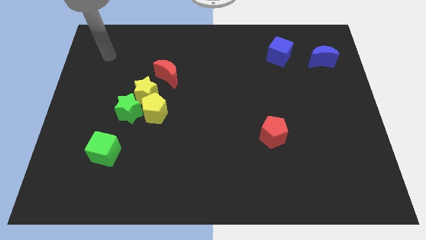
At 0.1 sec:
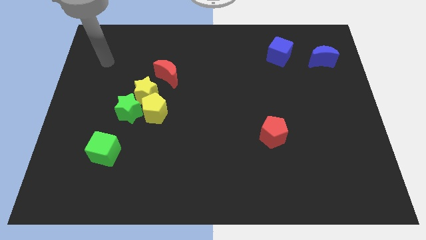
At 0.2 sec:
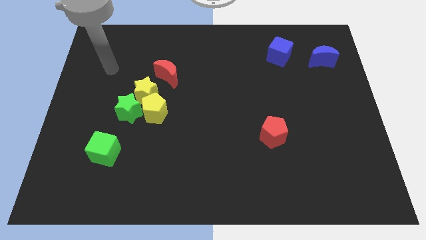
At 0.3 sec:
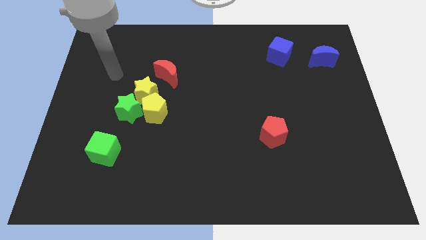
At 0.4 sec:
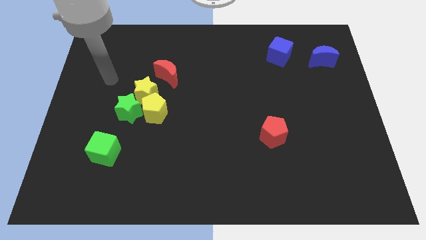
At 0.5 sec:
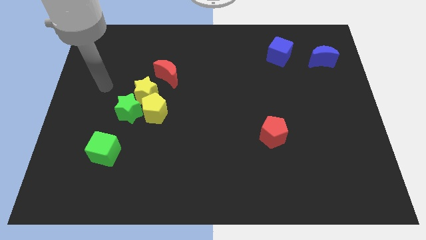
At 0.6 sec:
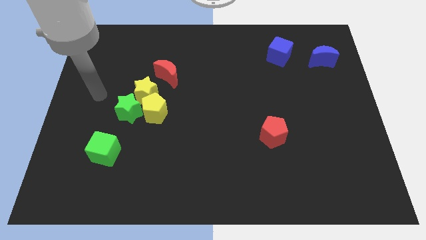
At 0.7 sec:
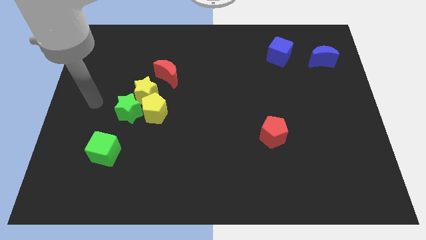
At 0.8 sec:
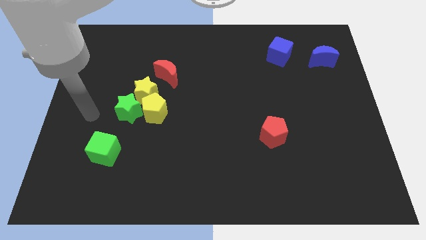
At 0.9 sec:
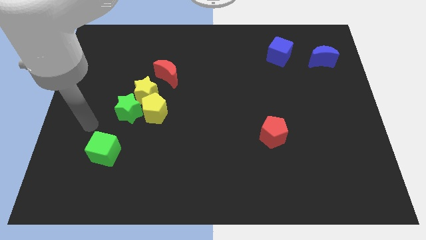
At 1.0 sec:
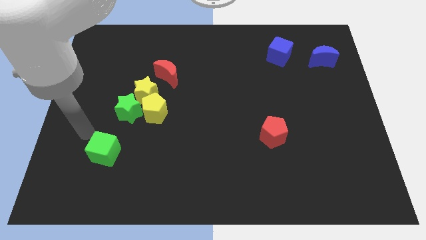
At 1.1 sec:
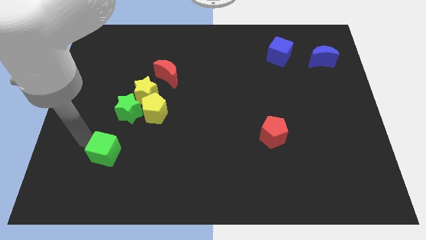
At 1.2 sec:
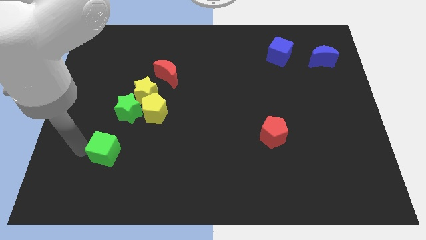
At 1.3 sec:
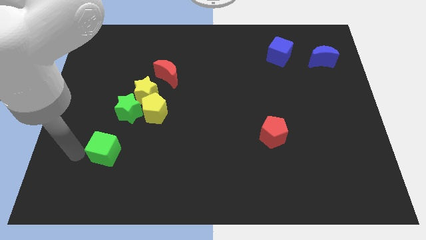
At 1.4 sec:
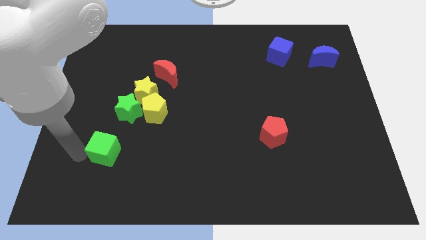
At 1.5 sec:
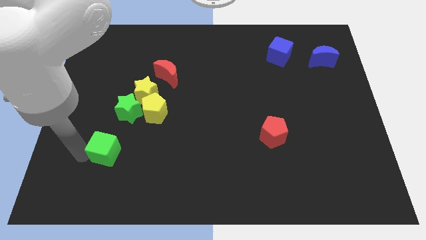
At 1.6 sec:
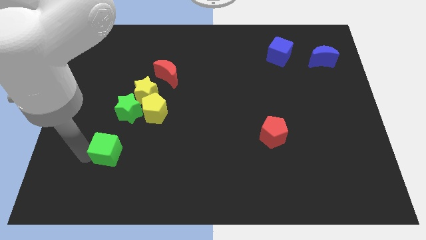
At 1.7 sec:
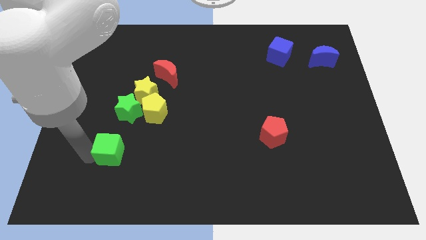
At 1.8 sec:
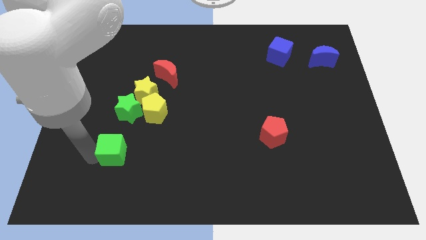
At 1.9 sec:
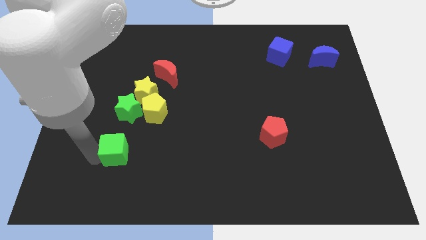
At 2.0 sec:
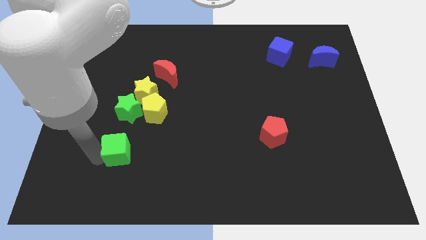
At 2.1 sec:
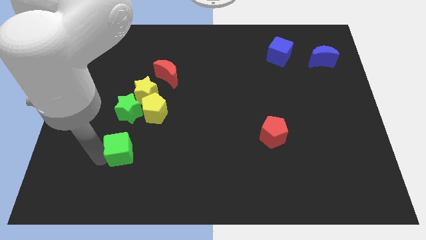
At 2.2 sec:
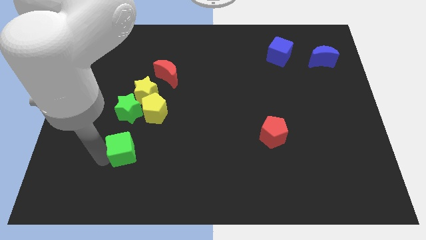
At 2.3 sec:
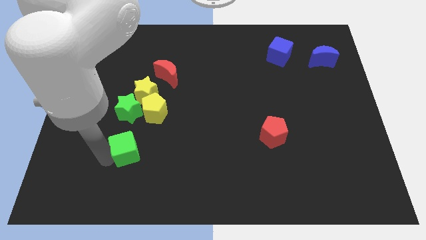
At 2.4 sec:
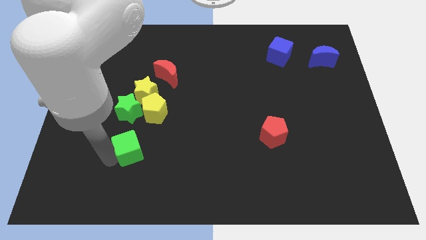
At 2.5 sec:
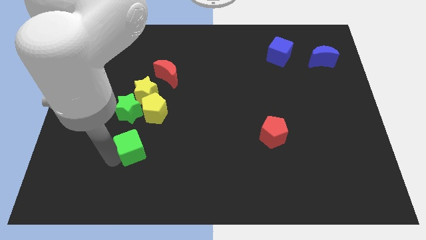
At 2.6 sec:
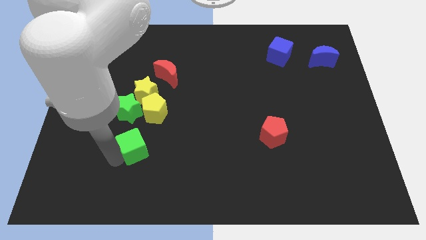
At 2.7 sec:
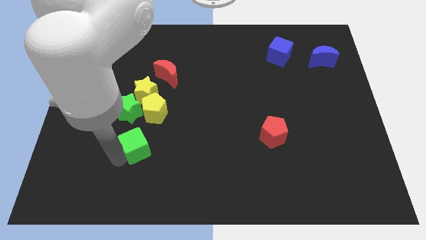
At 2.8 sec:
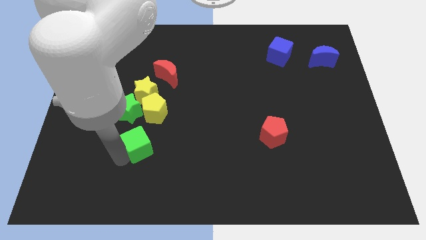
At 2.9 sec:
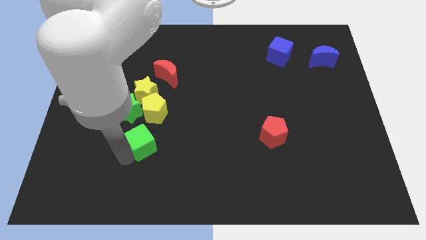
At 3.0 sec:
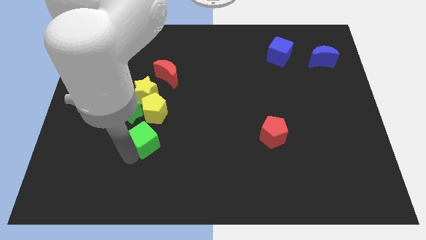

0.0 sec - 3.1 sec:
push the green cube a little bit diagonally upwards and right

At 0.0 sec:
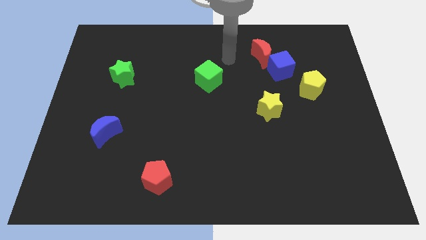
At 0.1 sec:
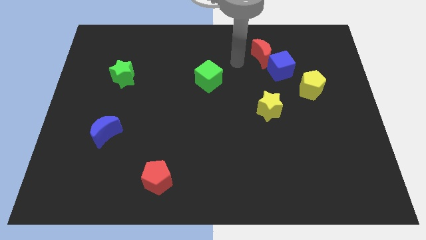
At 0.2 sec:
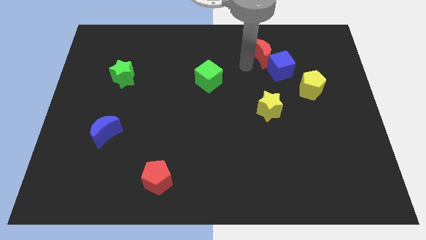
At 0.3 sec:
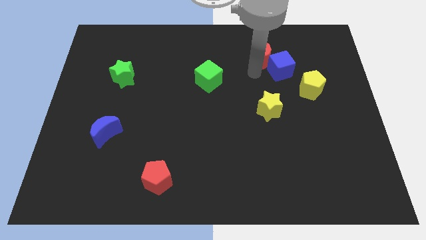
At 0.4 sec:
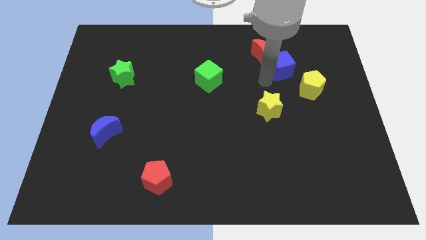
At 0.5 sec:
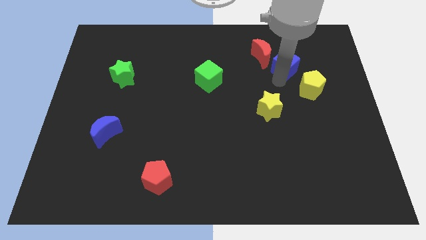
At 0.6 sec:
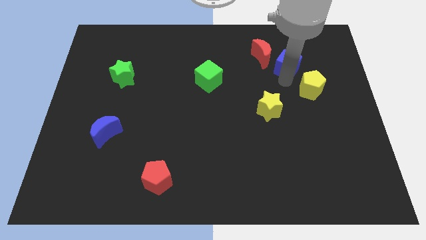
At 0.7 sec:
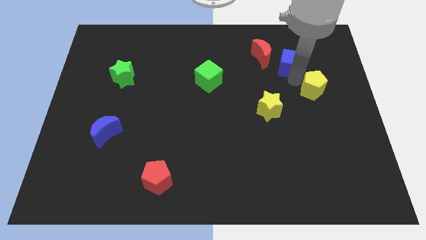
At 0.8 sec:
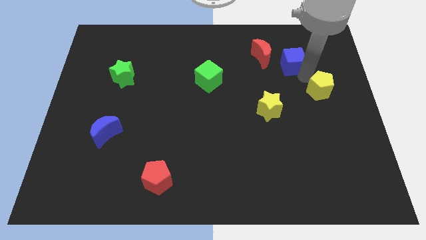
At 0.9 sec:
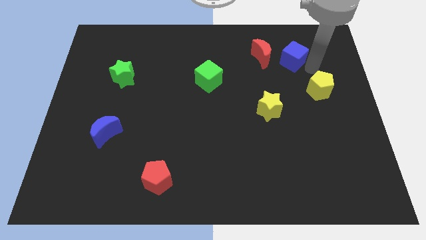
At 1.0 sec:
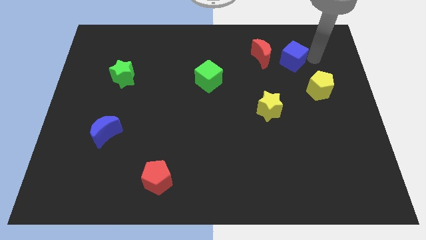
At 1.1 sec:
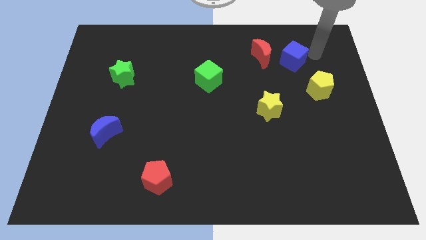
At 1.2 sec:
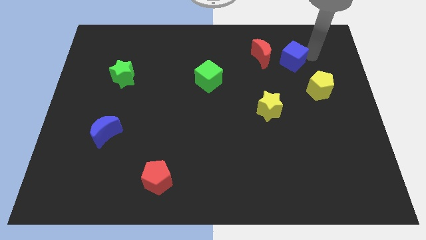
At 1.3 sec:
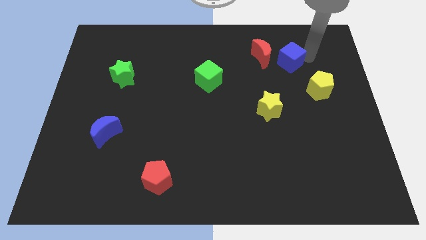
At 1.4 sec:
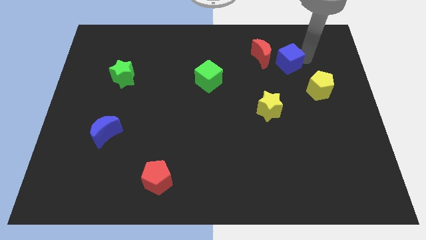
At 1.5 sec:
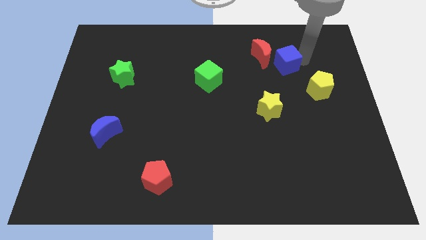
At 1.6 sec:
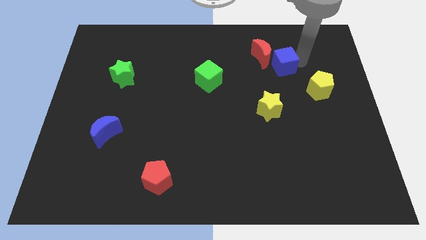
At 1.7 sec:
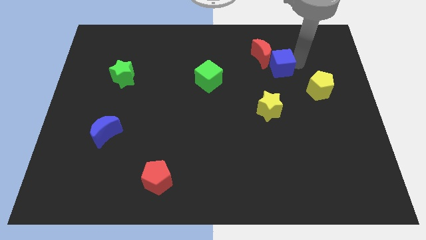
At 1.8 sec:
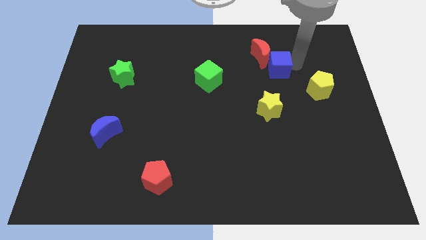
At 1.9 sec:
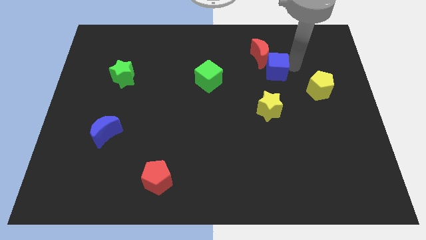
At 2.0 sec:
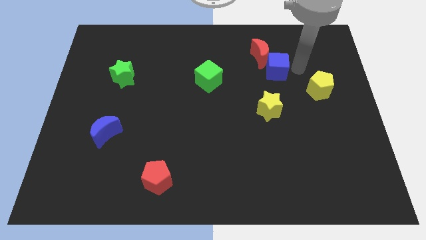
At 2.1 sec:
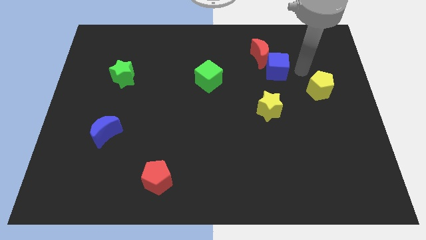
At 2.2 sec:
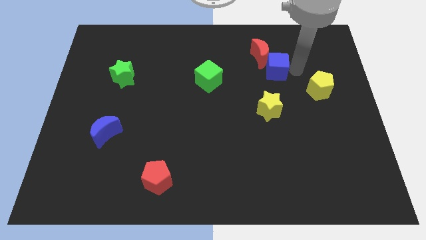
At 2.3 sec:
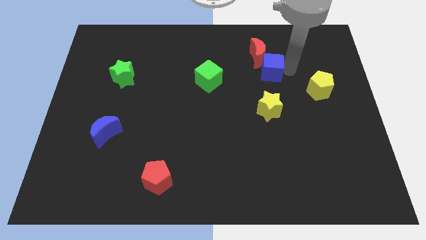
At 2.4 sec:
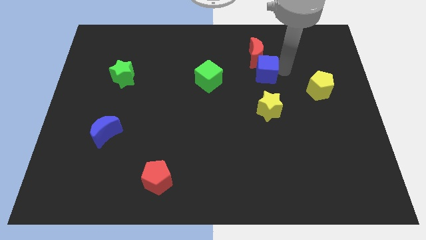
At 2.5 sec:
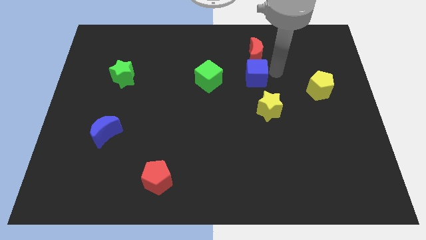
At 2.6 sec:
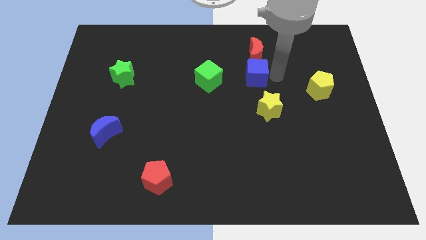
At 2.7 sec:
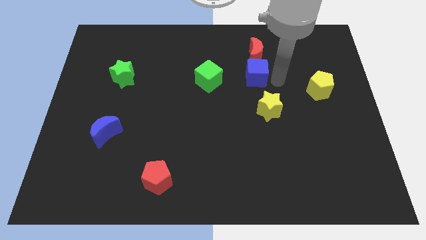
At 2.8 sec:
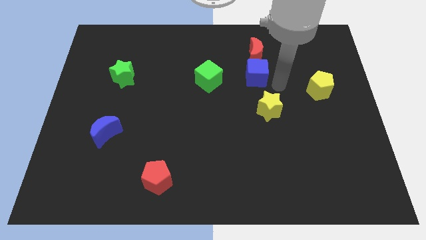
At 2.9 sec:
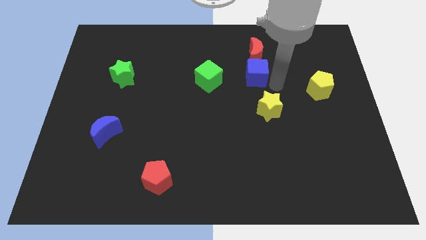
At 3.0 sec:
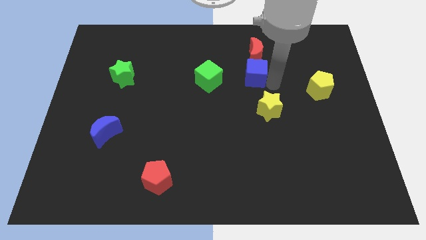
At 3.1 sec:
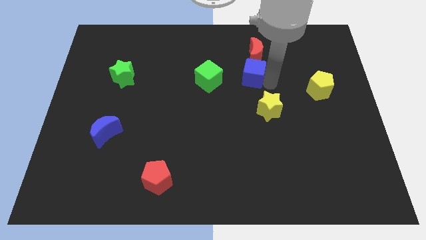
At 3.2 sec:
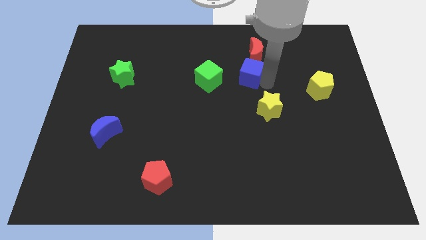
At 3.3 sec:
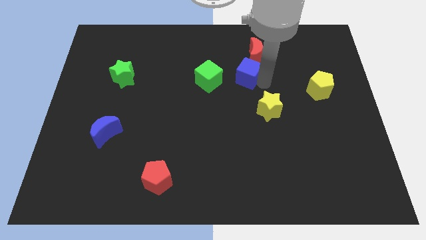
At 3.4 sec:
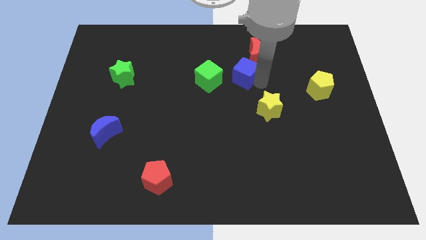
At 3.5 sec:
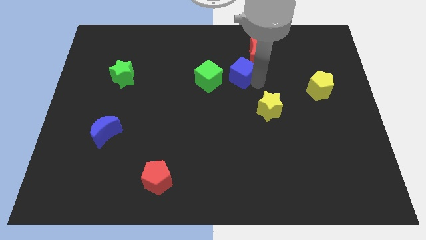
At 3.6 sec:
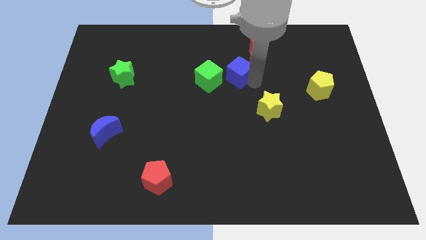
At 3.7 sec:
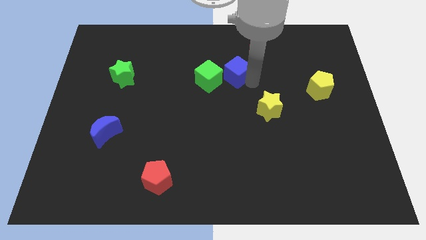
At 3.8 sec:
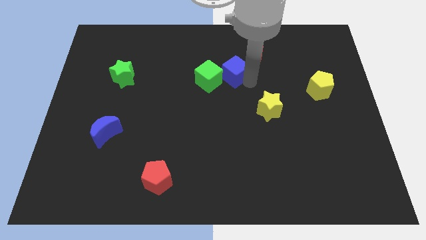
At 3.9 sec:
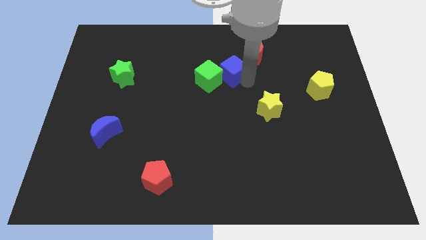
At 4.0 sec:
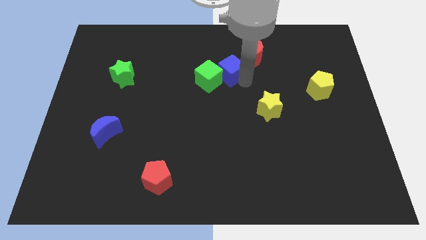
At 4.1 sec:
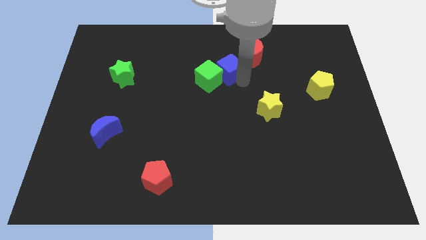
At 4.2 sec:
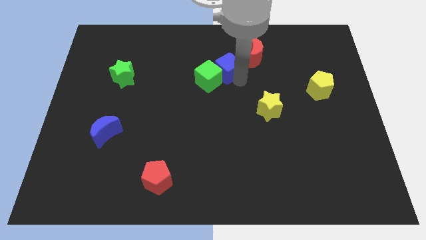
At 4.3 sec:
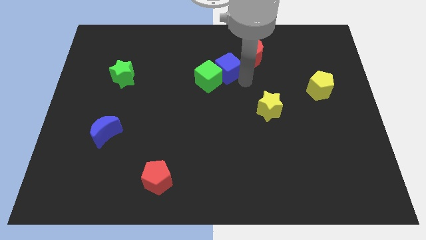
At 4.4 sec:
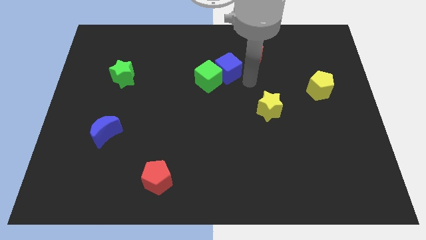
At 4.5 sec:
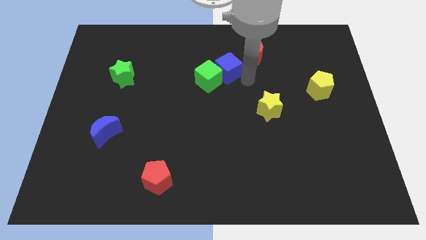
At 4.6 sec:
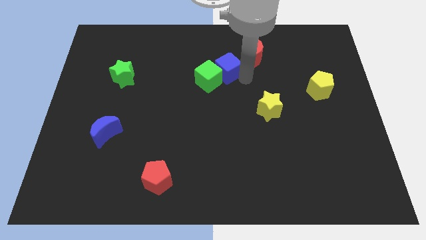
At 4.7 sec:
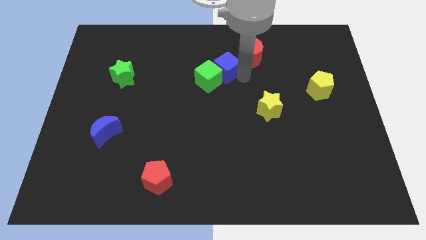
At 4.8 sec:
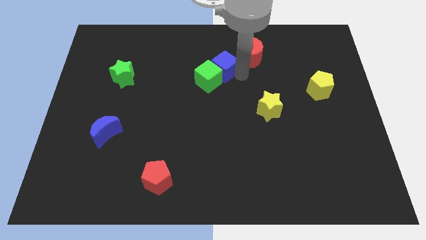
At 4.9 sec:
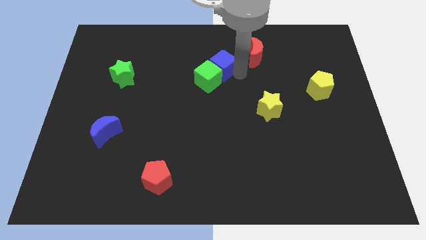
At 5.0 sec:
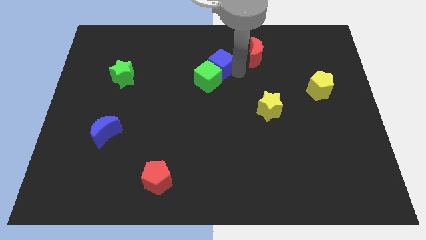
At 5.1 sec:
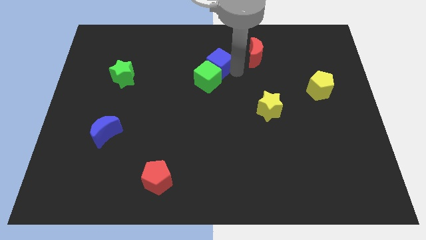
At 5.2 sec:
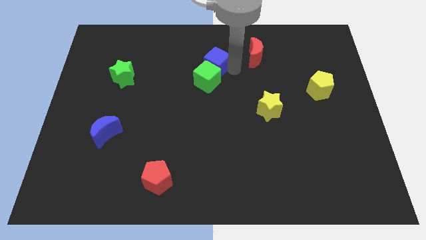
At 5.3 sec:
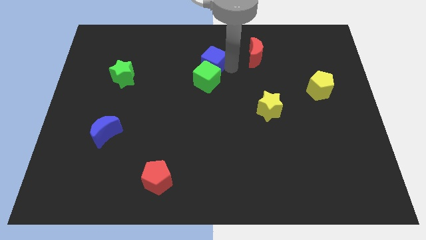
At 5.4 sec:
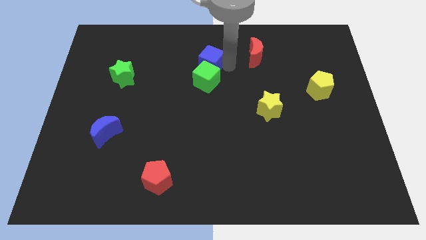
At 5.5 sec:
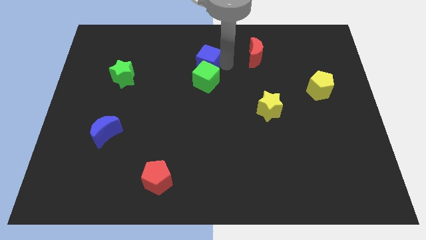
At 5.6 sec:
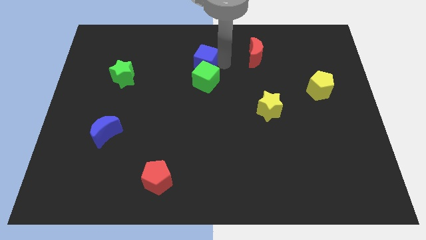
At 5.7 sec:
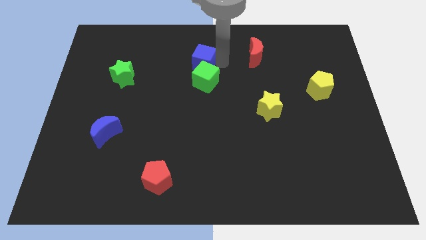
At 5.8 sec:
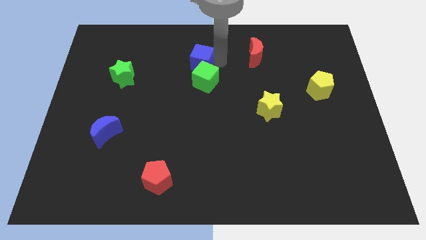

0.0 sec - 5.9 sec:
move the blue cube left
